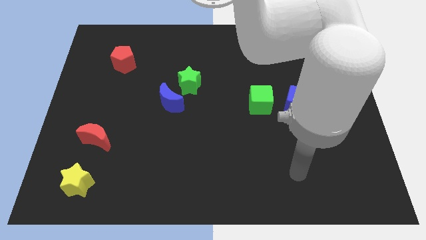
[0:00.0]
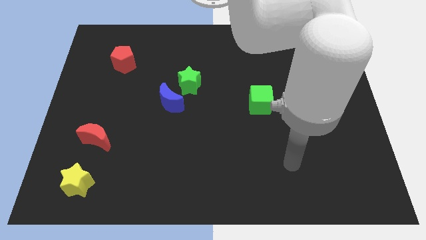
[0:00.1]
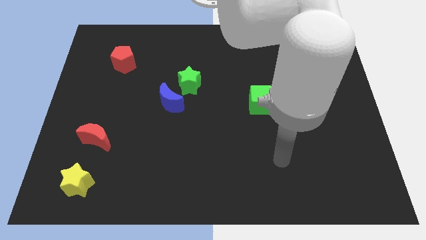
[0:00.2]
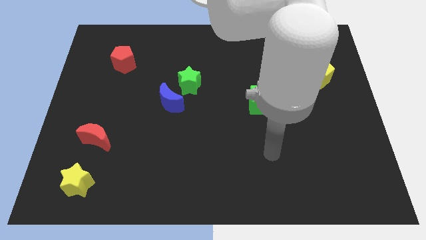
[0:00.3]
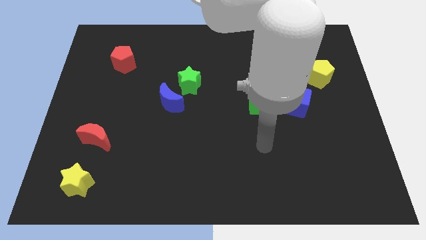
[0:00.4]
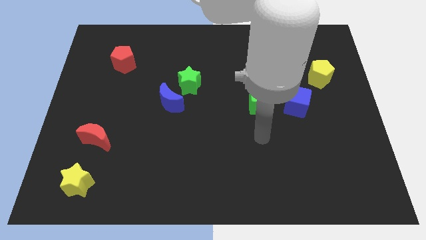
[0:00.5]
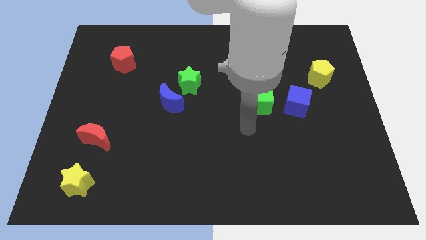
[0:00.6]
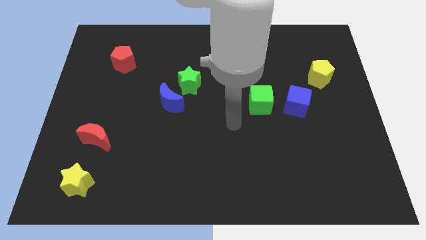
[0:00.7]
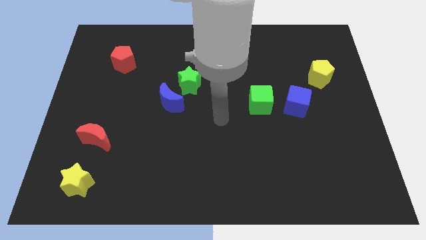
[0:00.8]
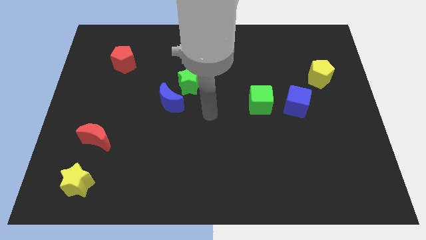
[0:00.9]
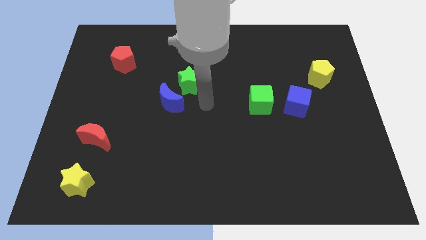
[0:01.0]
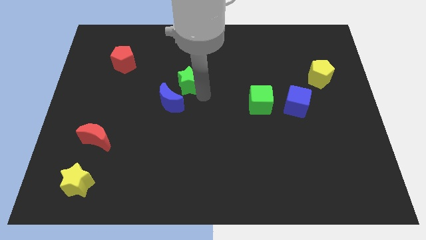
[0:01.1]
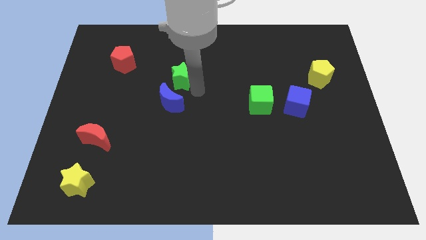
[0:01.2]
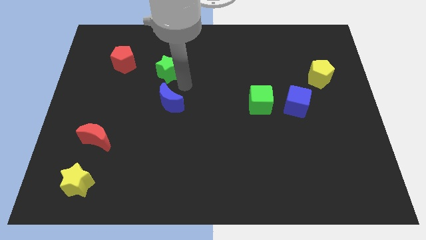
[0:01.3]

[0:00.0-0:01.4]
pull the blue moon apart from the green star

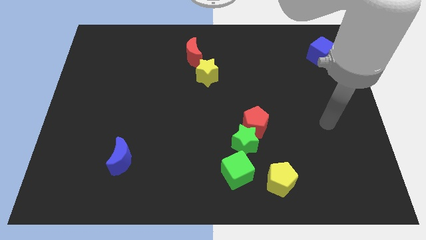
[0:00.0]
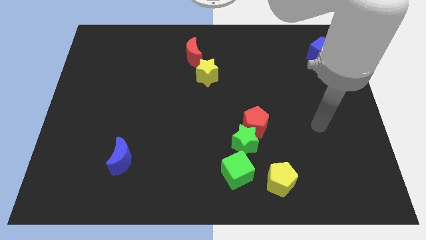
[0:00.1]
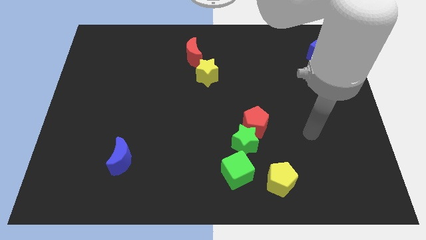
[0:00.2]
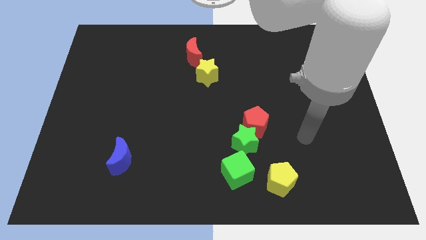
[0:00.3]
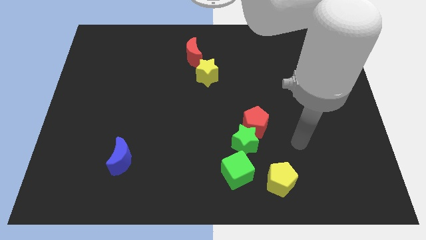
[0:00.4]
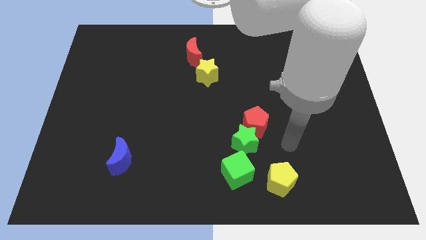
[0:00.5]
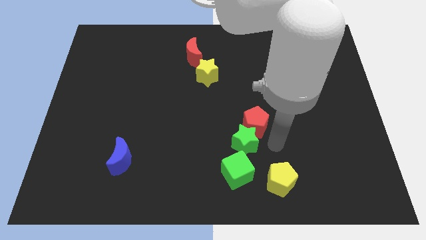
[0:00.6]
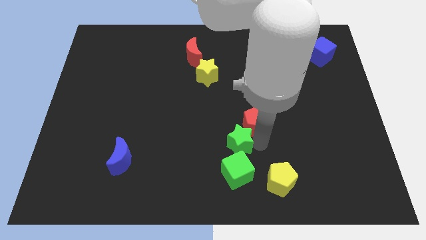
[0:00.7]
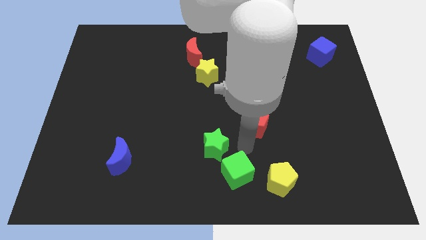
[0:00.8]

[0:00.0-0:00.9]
separate the red pentagon from the green star

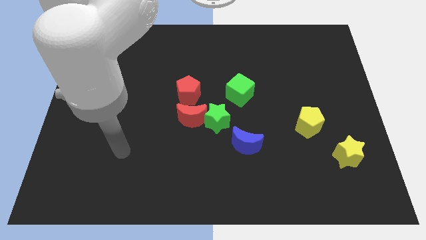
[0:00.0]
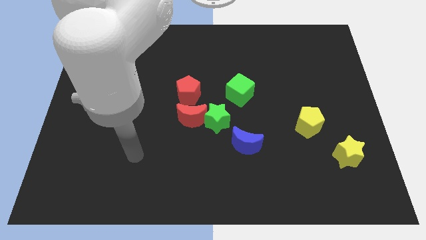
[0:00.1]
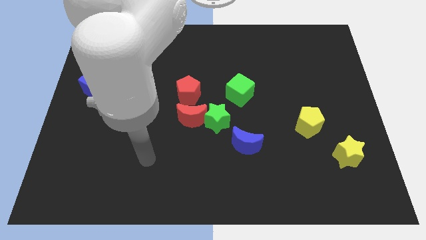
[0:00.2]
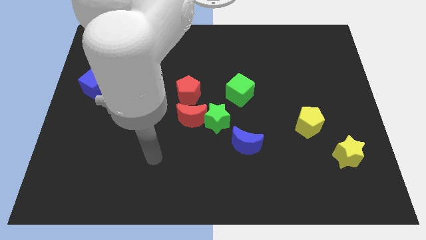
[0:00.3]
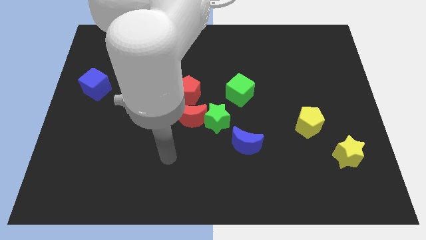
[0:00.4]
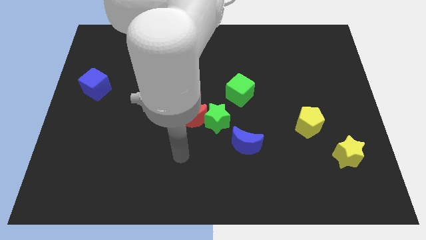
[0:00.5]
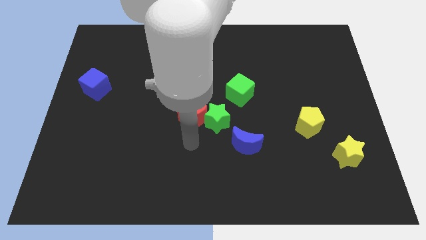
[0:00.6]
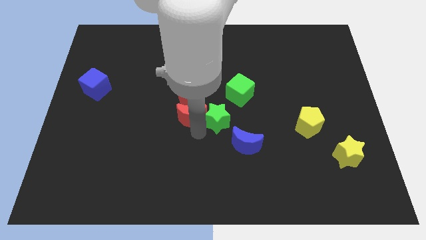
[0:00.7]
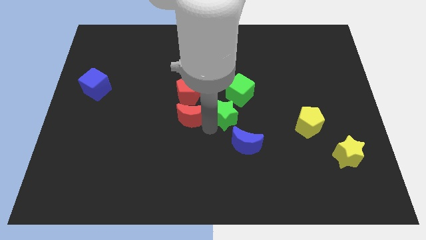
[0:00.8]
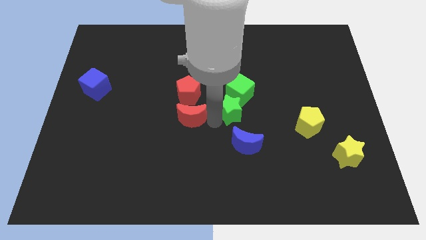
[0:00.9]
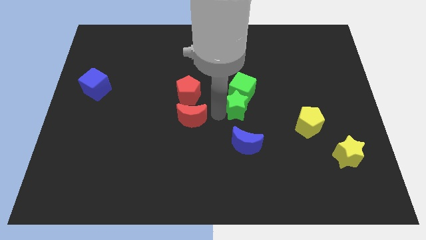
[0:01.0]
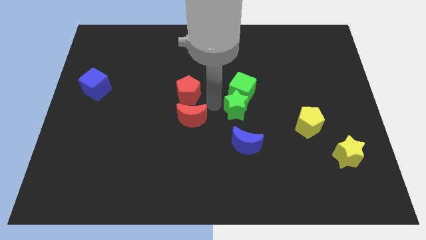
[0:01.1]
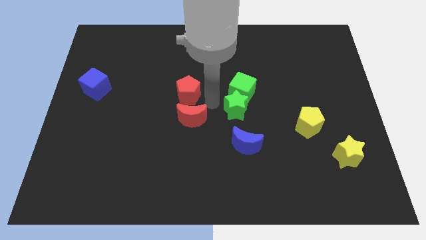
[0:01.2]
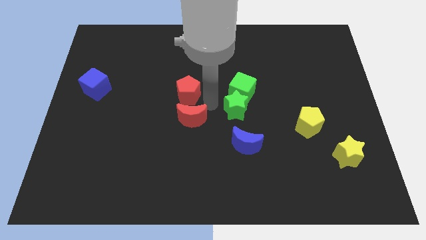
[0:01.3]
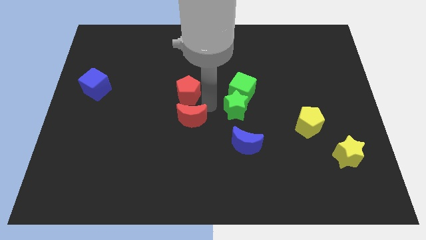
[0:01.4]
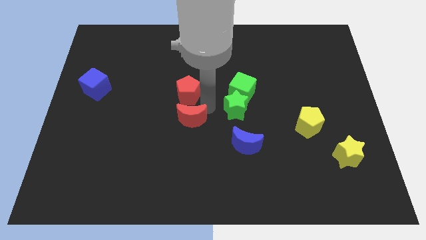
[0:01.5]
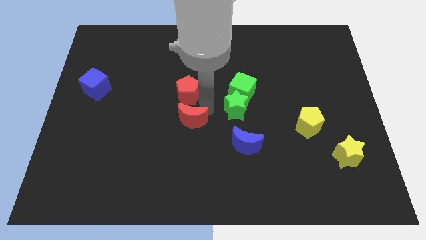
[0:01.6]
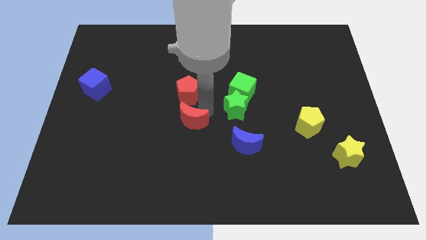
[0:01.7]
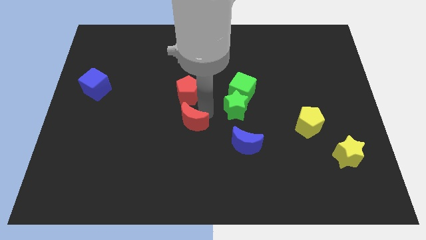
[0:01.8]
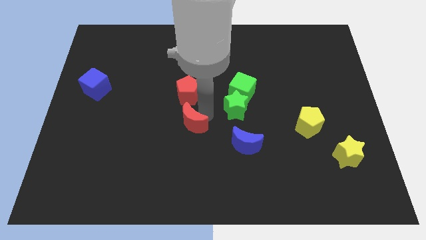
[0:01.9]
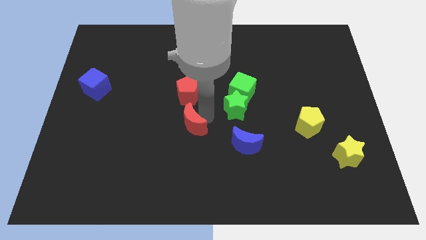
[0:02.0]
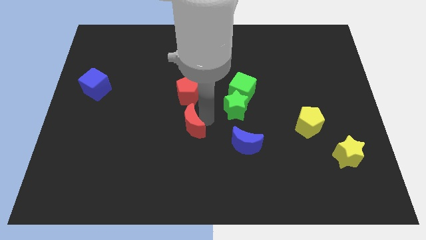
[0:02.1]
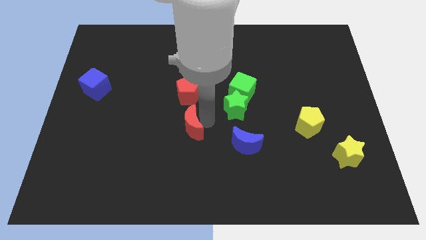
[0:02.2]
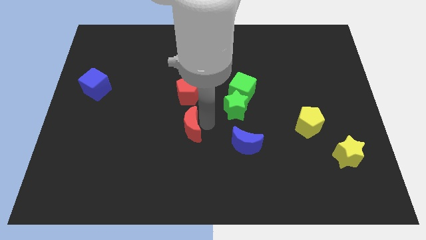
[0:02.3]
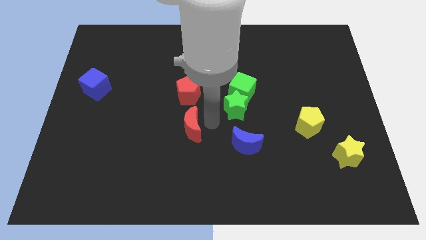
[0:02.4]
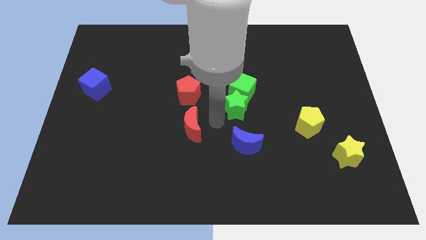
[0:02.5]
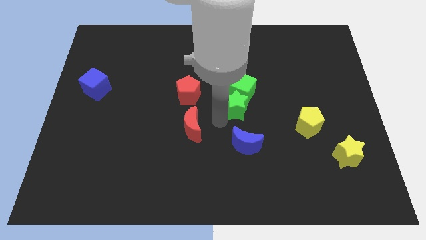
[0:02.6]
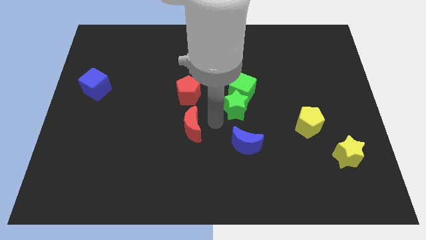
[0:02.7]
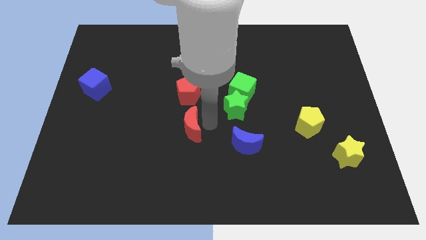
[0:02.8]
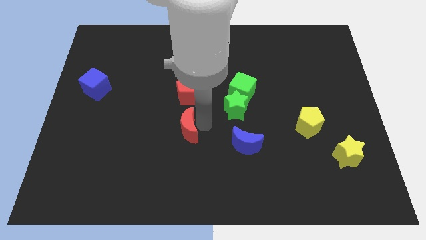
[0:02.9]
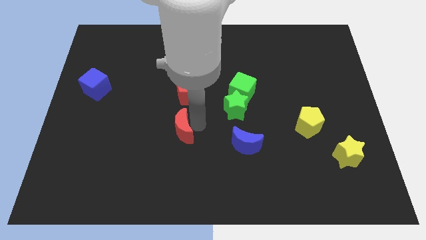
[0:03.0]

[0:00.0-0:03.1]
separate the red moon from the green star and red pentagon

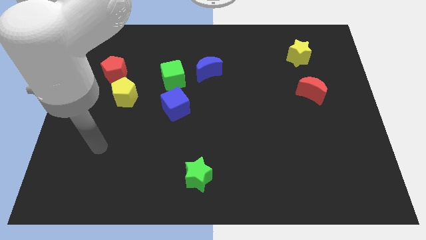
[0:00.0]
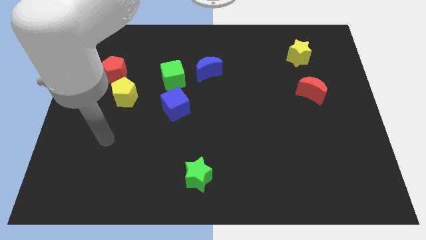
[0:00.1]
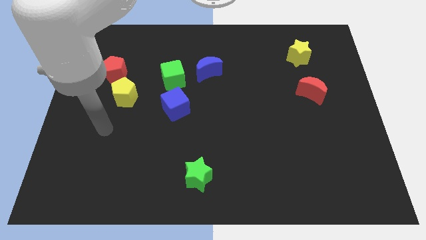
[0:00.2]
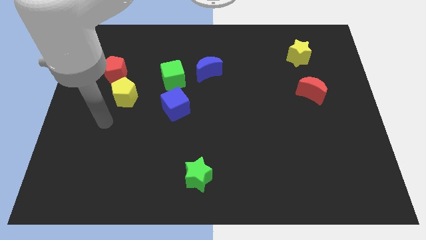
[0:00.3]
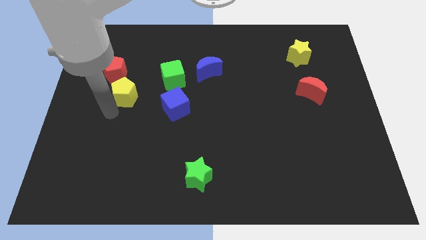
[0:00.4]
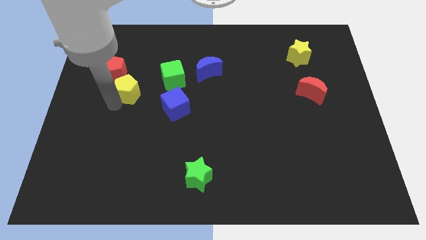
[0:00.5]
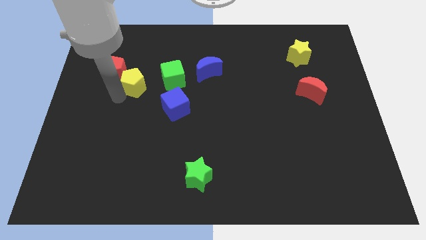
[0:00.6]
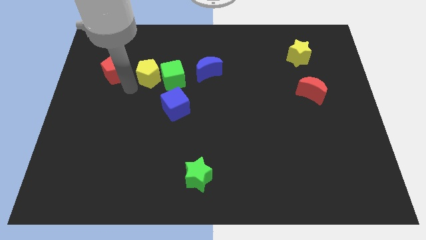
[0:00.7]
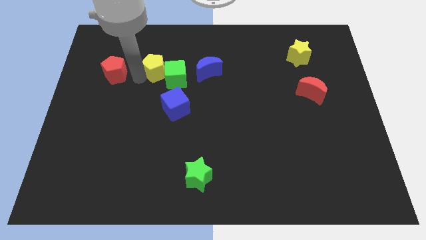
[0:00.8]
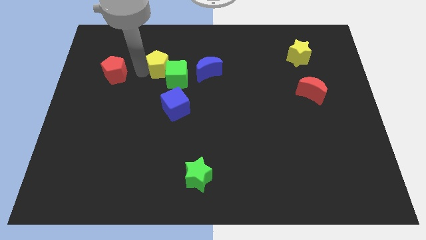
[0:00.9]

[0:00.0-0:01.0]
pull the red pentagon apart from the yellow pentagon

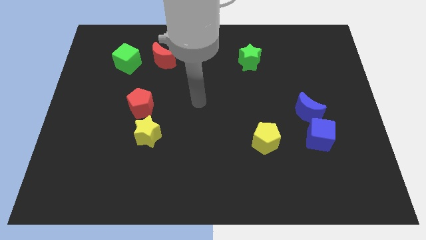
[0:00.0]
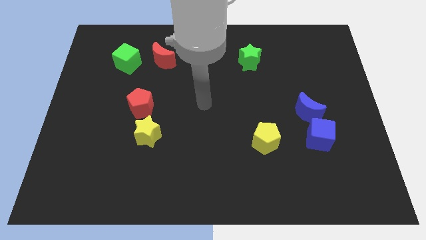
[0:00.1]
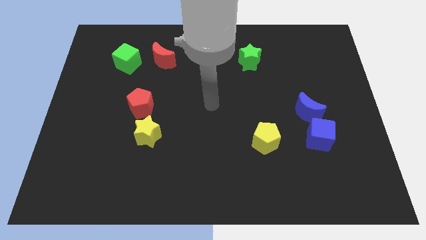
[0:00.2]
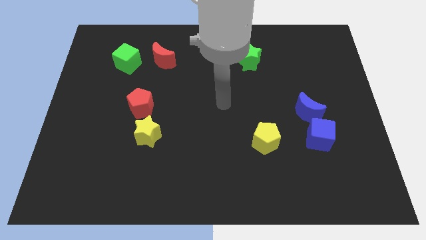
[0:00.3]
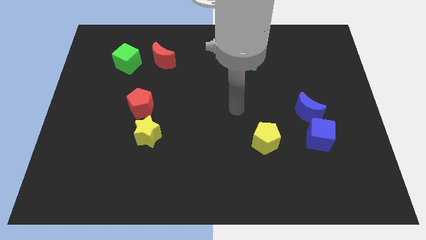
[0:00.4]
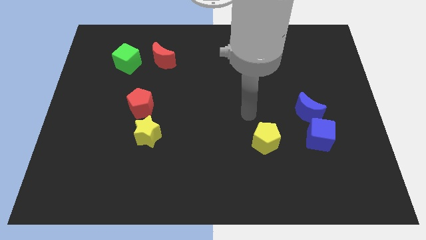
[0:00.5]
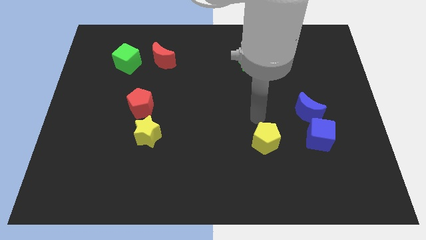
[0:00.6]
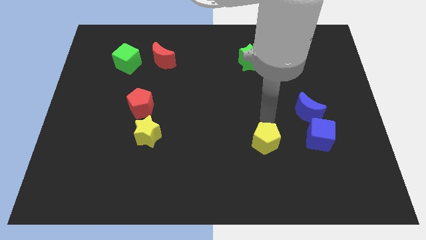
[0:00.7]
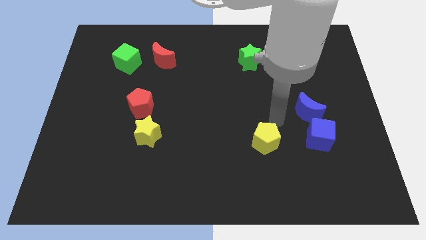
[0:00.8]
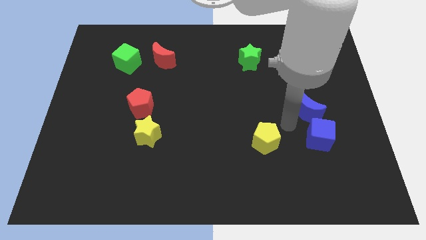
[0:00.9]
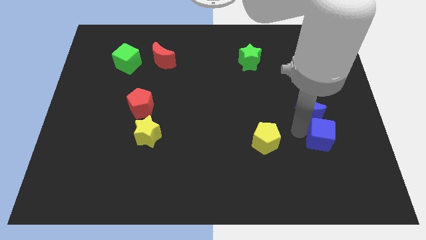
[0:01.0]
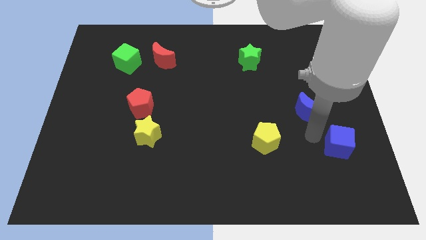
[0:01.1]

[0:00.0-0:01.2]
move the blue moon away from the blue cube

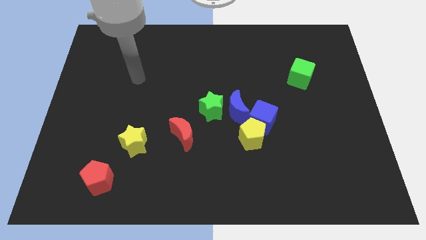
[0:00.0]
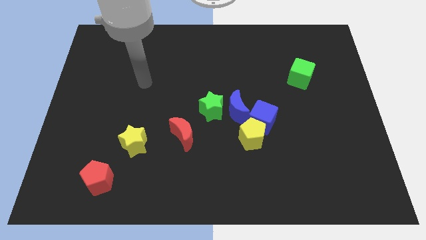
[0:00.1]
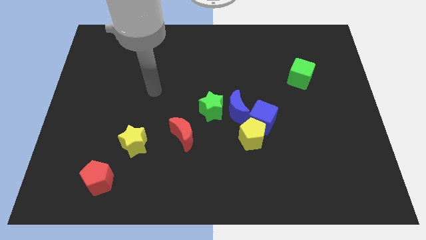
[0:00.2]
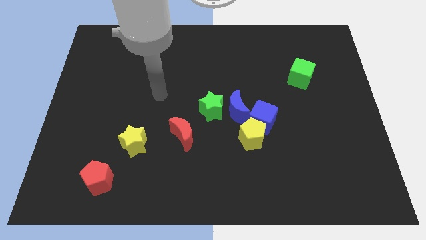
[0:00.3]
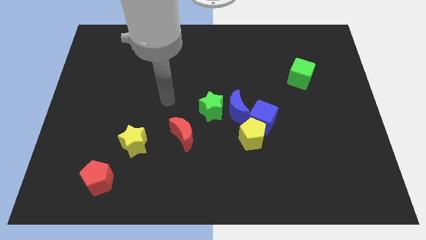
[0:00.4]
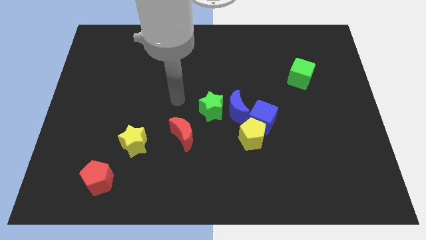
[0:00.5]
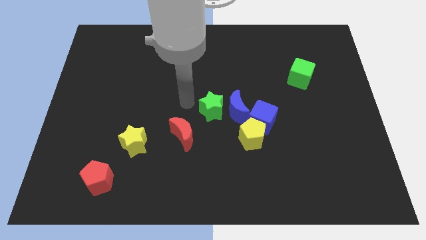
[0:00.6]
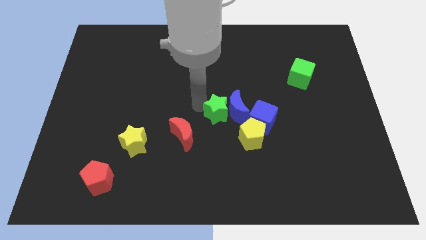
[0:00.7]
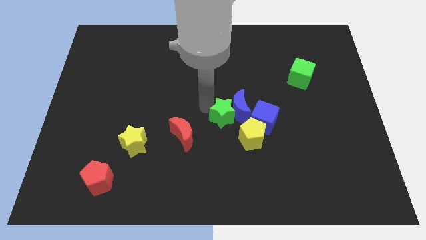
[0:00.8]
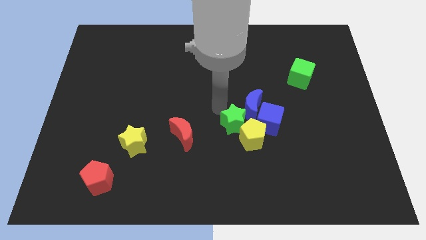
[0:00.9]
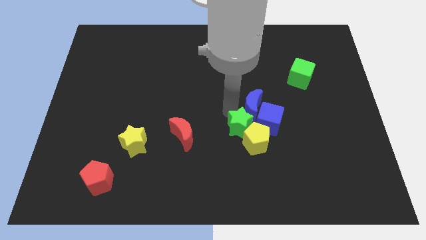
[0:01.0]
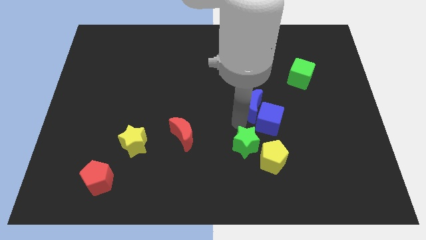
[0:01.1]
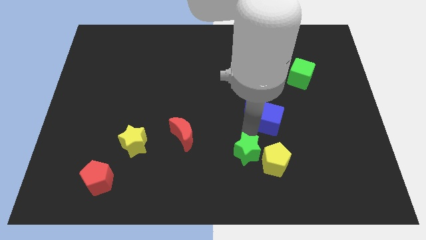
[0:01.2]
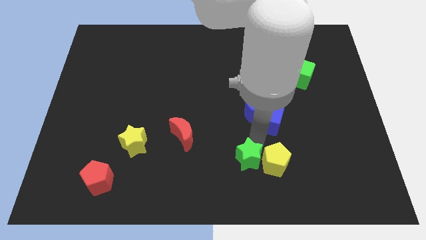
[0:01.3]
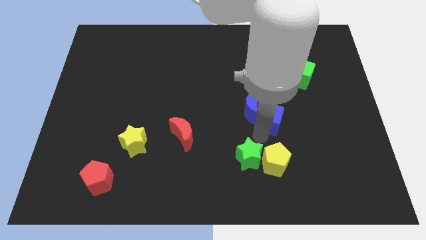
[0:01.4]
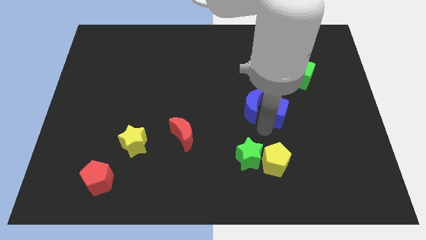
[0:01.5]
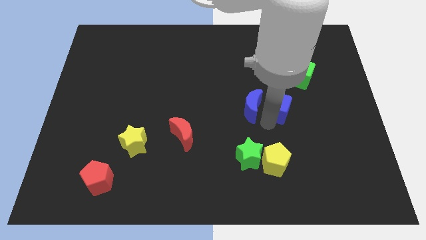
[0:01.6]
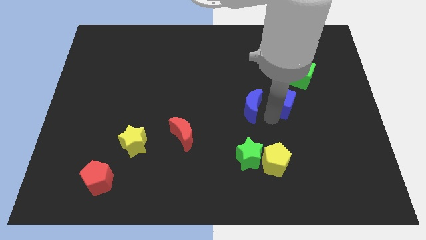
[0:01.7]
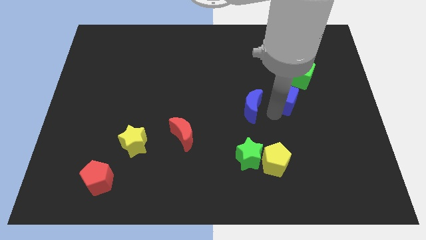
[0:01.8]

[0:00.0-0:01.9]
move the blue cube away from the yellow pentagon and blue moon

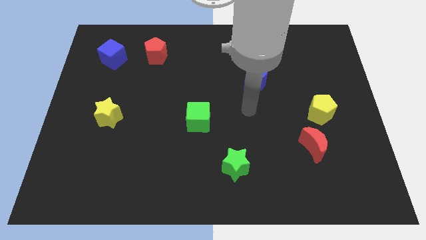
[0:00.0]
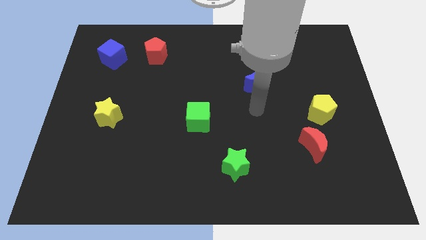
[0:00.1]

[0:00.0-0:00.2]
pull the red moon apart from the yellow pentagon
